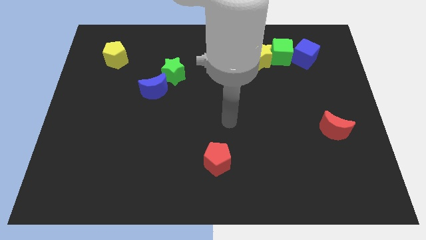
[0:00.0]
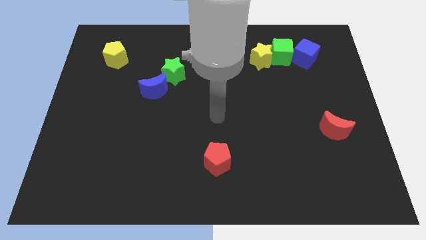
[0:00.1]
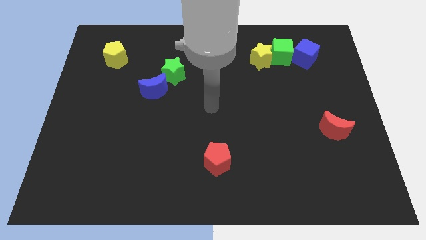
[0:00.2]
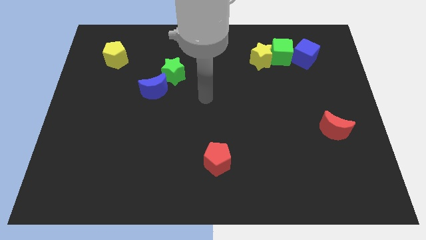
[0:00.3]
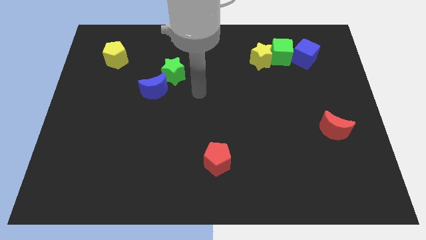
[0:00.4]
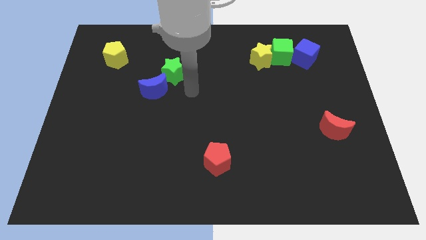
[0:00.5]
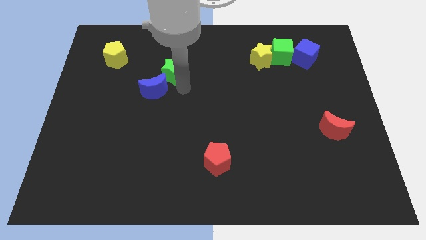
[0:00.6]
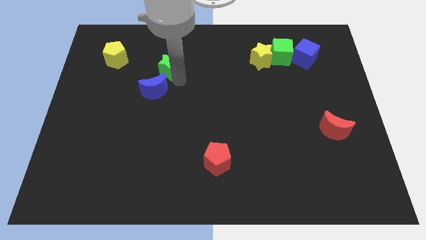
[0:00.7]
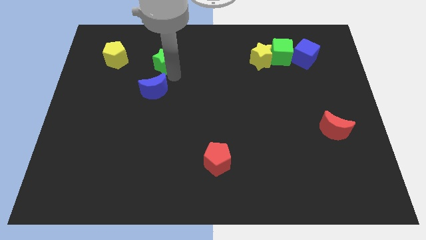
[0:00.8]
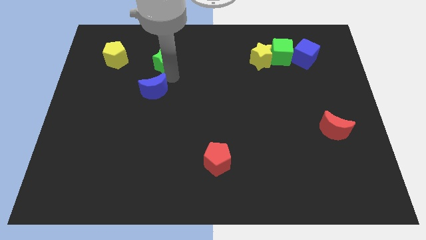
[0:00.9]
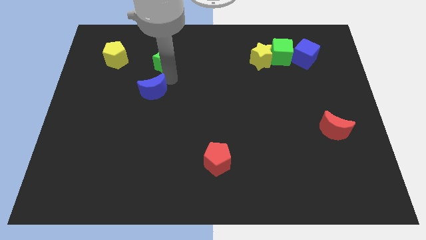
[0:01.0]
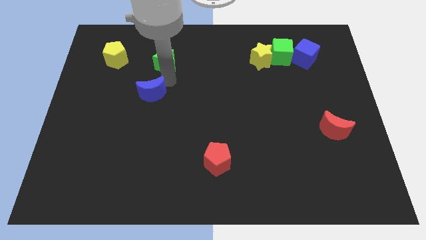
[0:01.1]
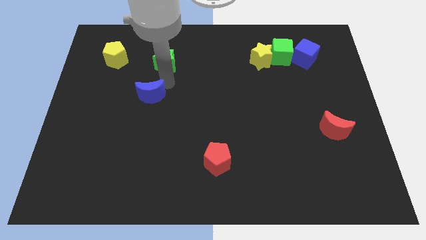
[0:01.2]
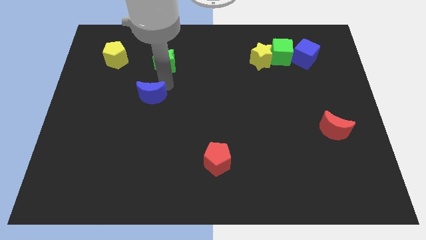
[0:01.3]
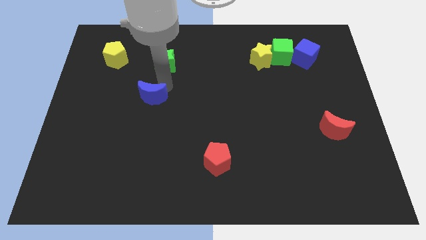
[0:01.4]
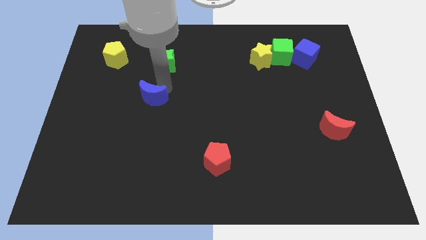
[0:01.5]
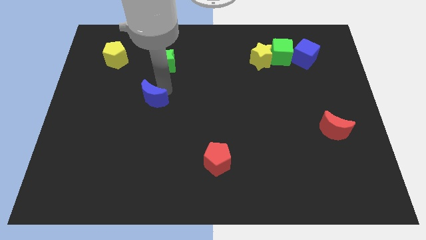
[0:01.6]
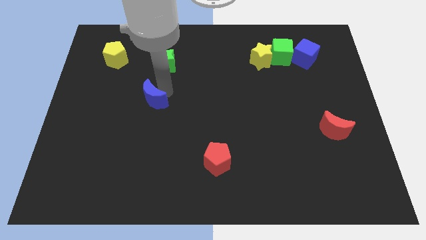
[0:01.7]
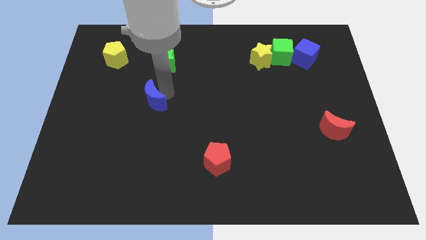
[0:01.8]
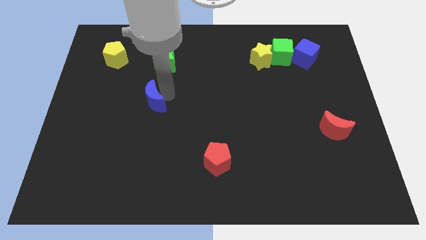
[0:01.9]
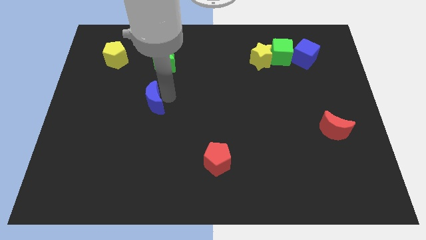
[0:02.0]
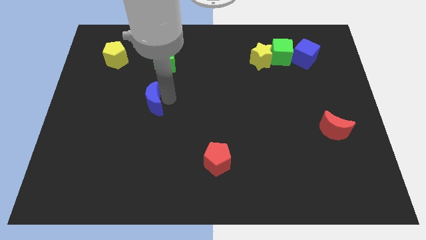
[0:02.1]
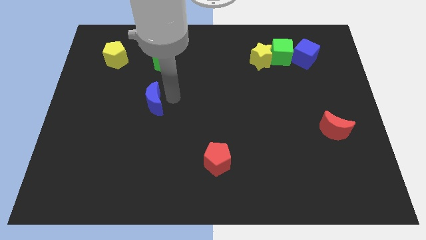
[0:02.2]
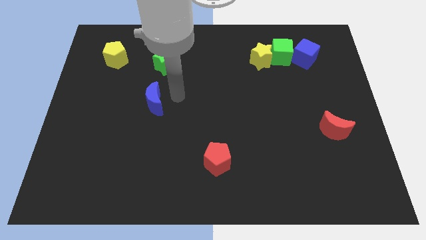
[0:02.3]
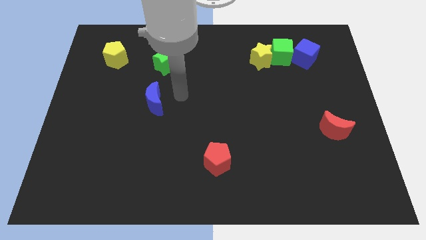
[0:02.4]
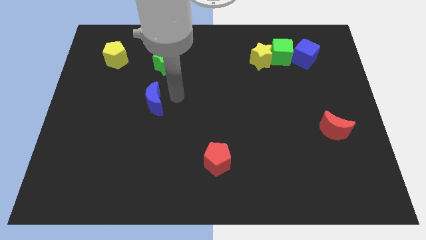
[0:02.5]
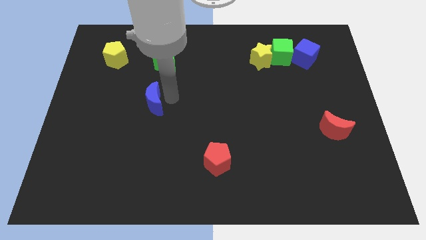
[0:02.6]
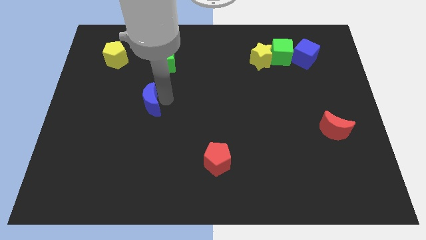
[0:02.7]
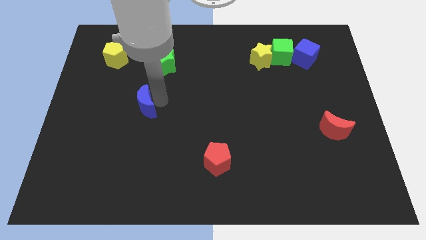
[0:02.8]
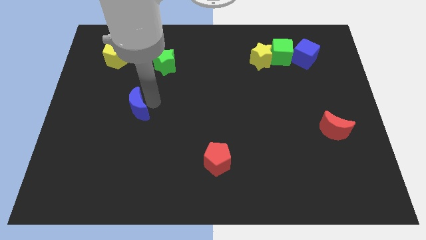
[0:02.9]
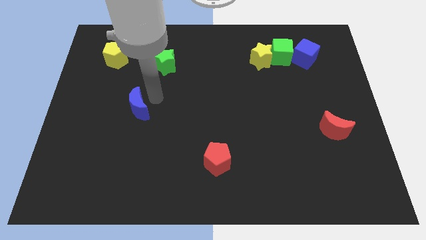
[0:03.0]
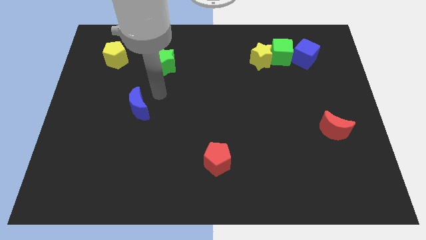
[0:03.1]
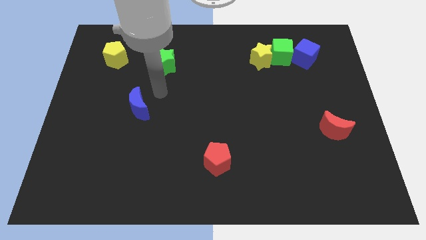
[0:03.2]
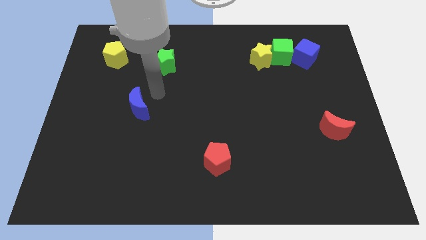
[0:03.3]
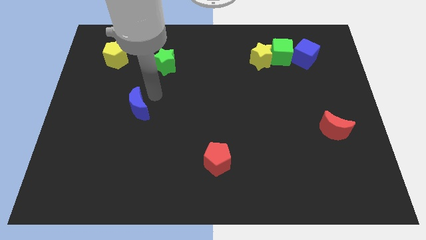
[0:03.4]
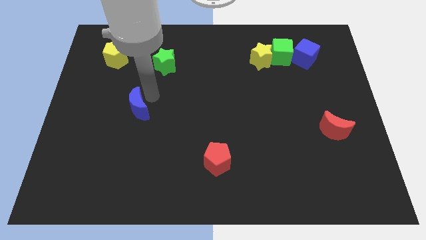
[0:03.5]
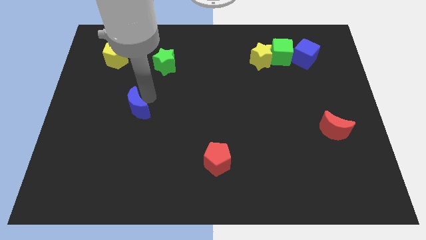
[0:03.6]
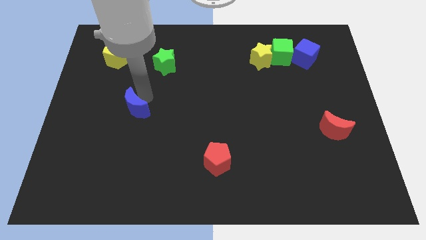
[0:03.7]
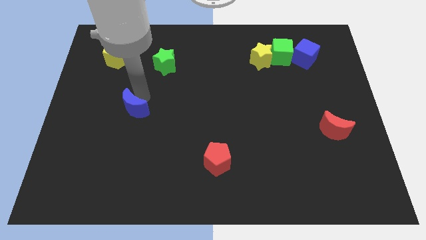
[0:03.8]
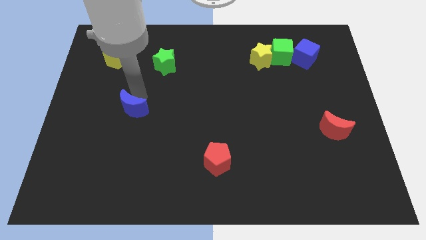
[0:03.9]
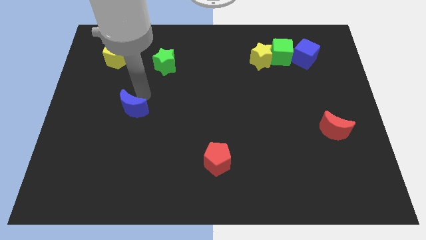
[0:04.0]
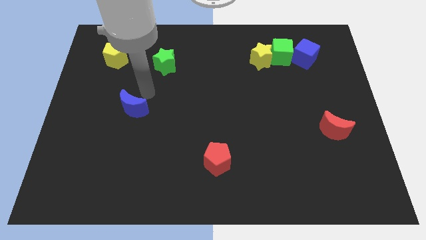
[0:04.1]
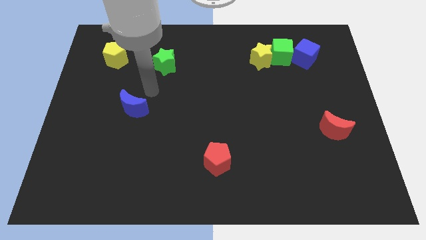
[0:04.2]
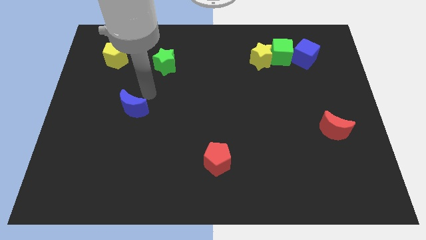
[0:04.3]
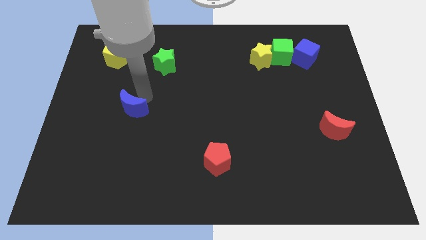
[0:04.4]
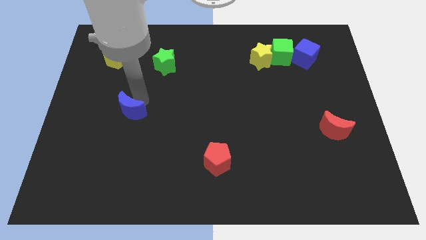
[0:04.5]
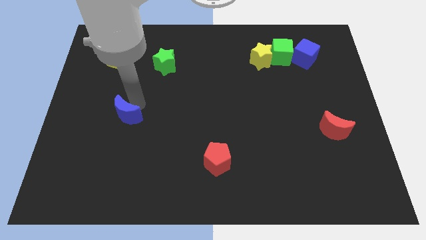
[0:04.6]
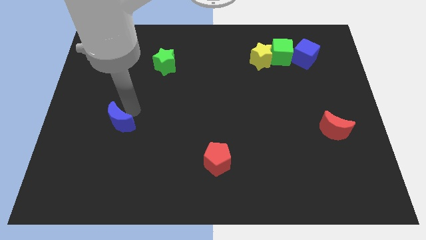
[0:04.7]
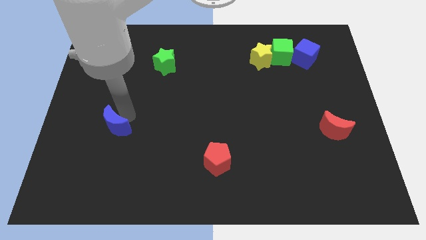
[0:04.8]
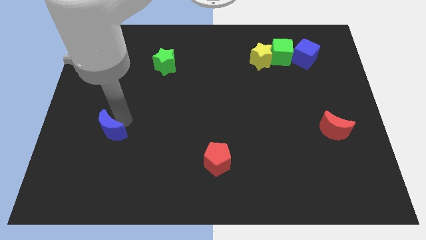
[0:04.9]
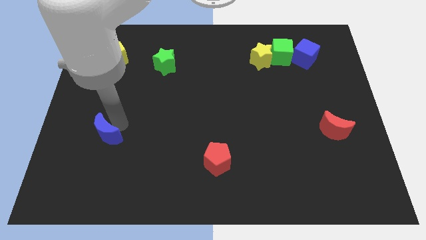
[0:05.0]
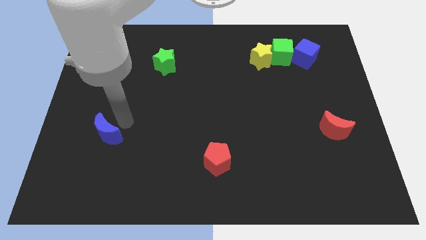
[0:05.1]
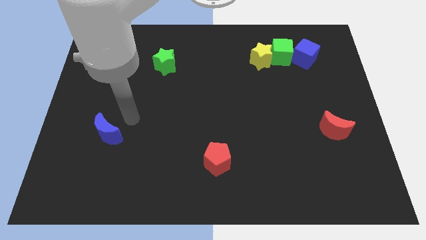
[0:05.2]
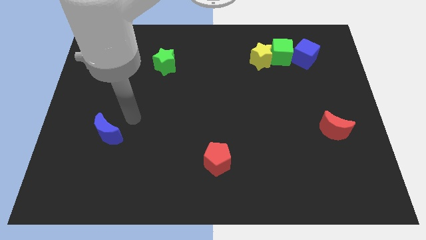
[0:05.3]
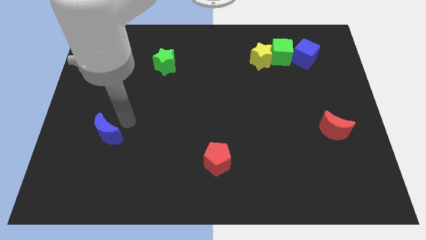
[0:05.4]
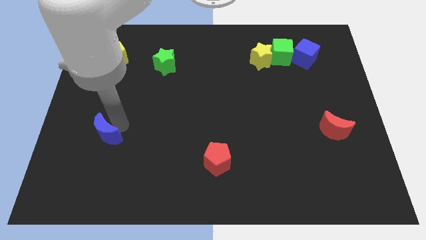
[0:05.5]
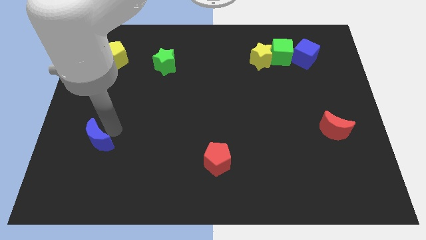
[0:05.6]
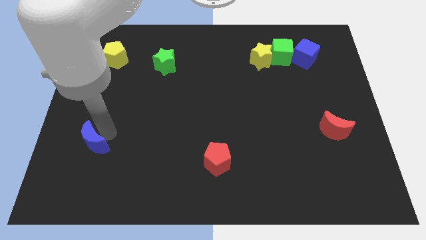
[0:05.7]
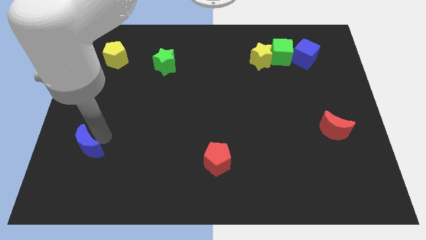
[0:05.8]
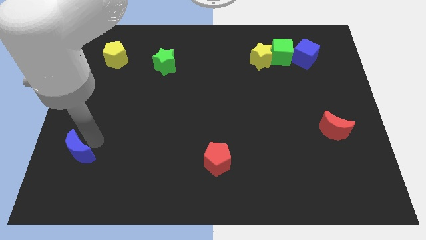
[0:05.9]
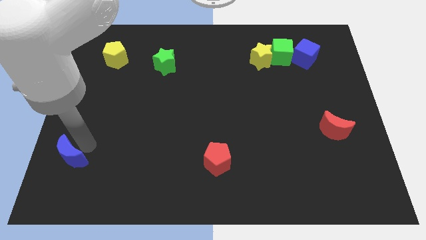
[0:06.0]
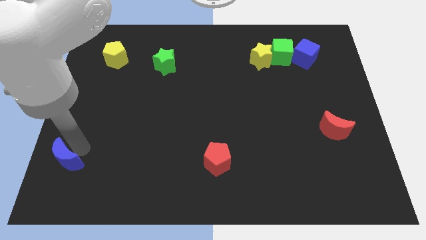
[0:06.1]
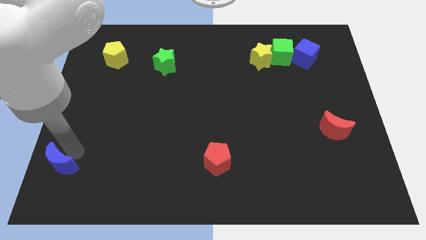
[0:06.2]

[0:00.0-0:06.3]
put the blue moon to the bottom left
